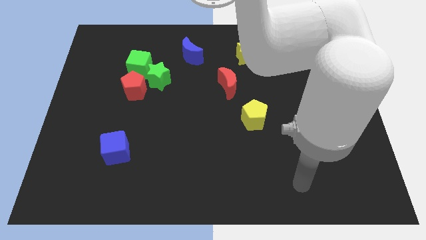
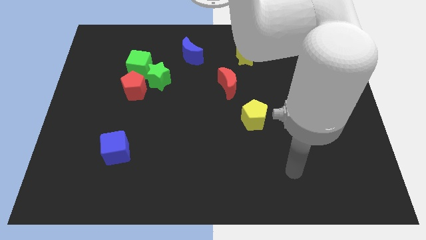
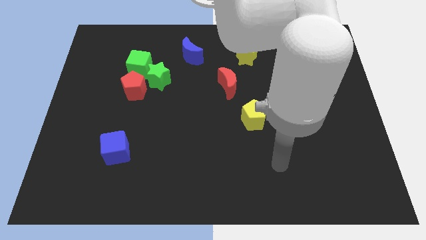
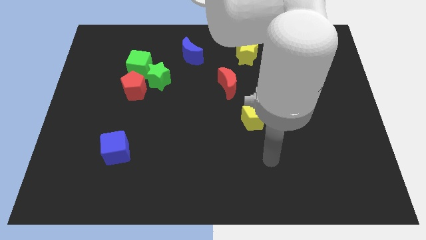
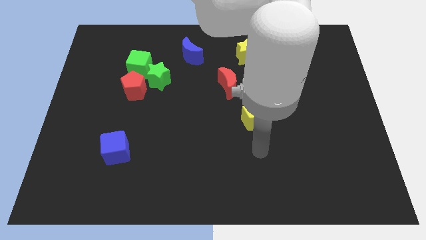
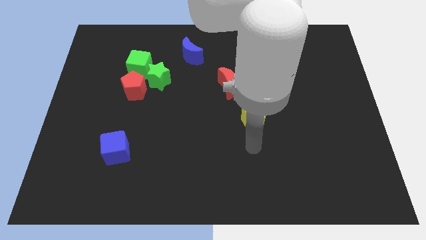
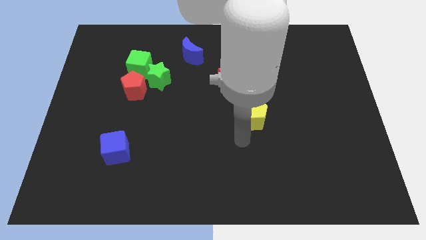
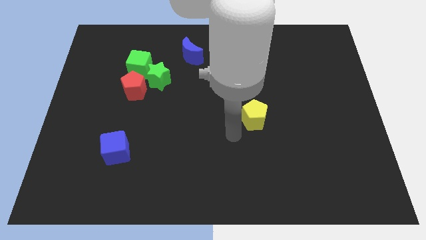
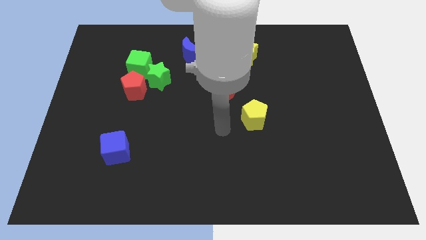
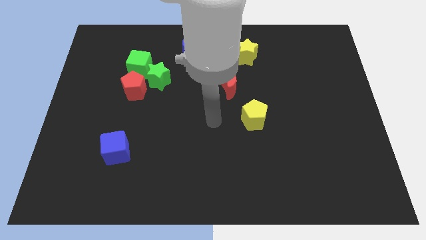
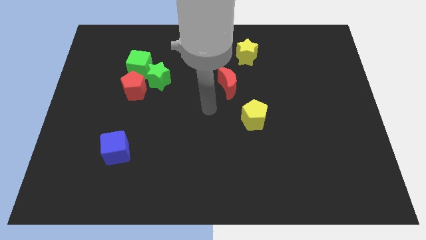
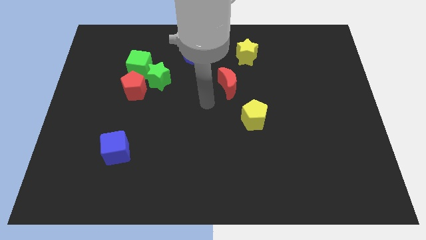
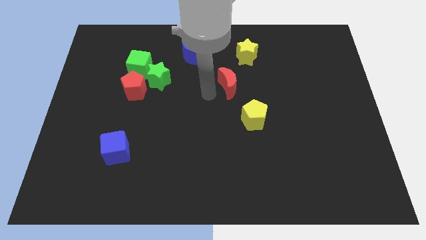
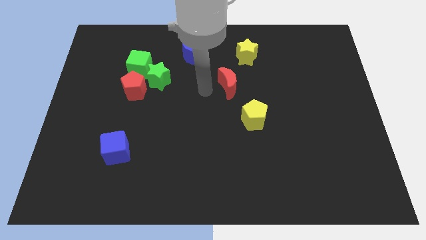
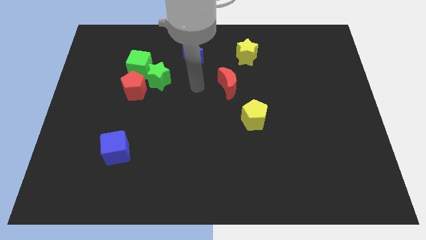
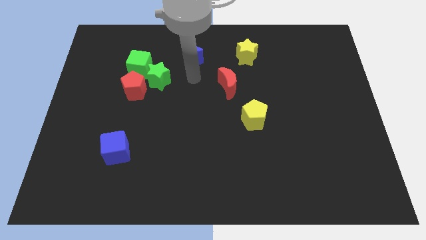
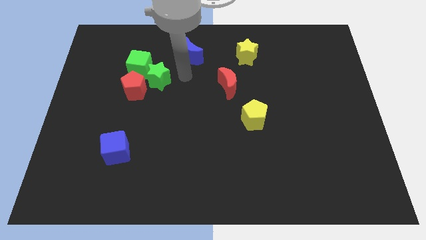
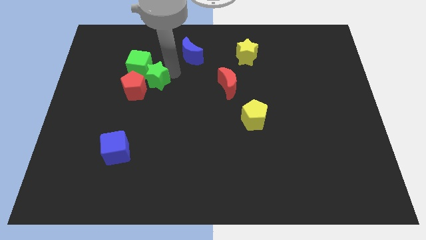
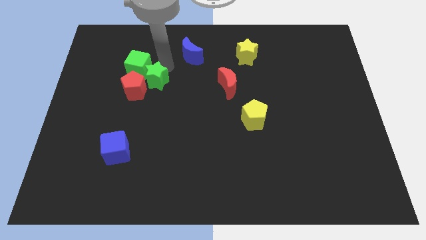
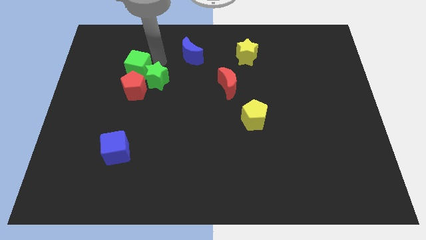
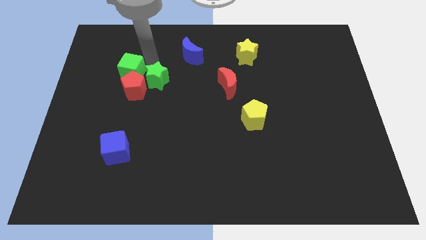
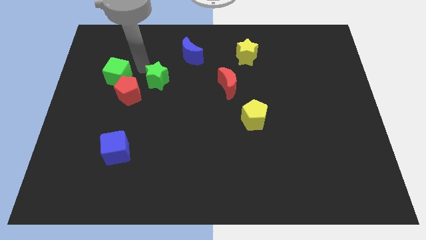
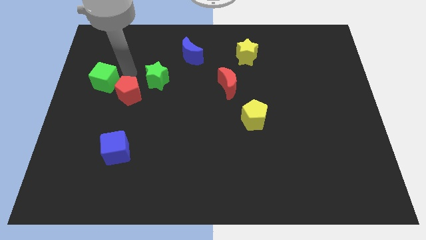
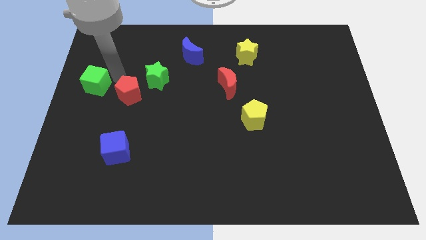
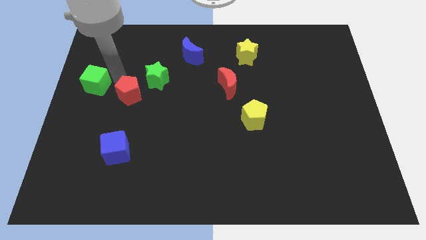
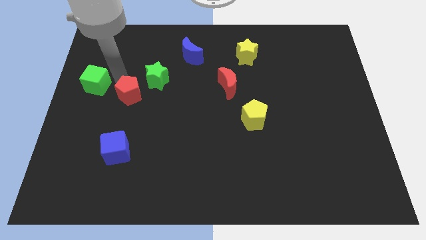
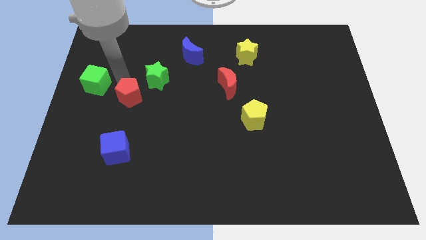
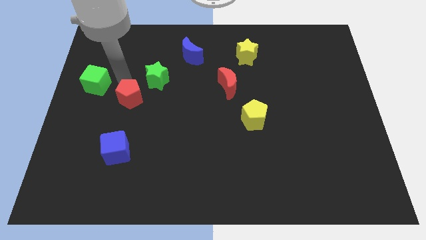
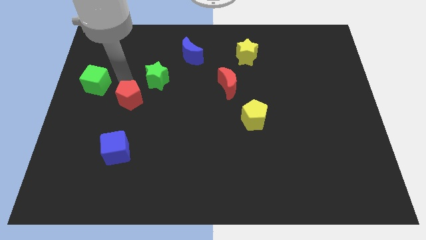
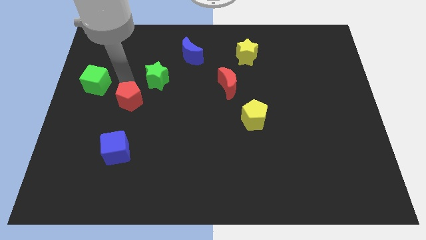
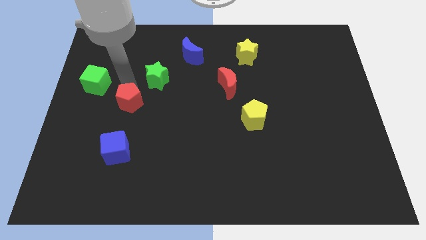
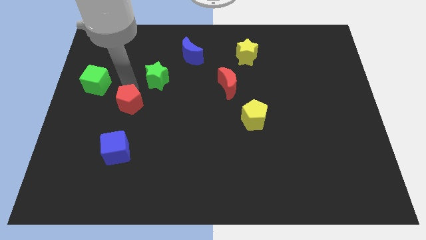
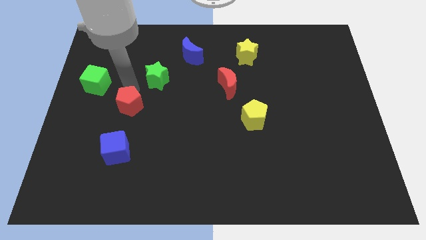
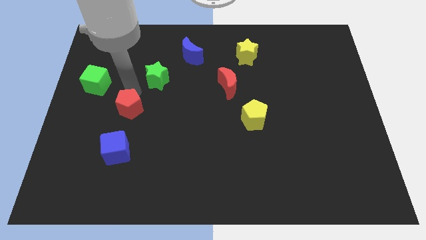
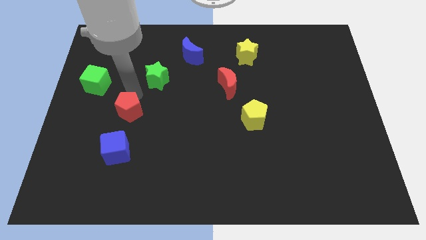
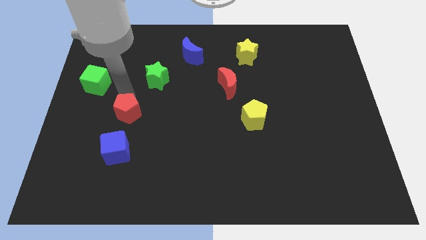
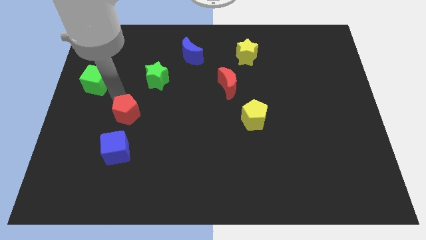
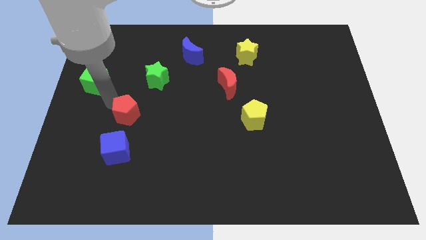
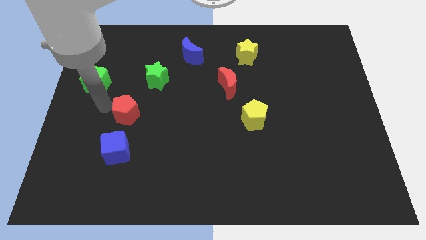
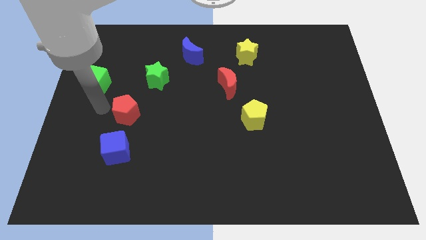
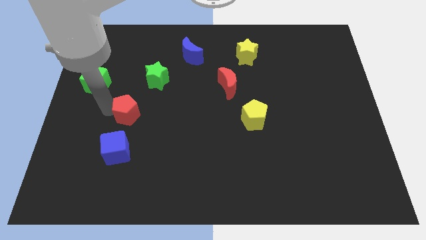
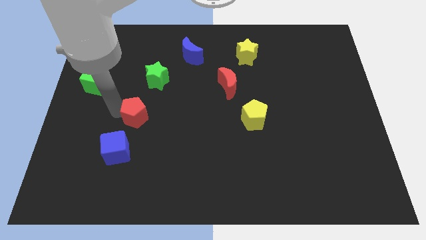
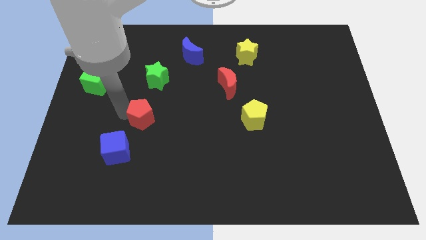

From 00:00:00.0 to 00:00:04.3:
push the red pentagon slightly down and then to the right

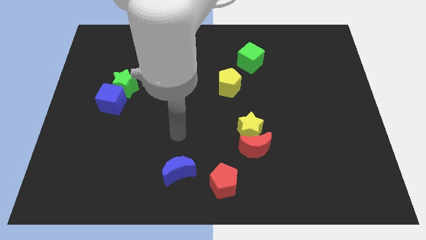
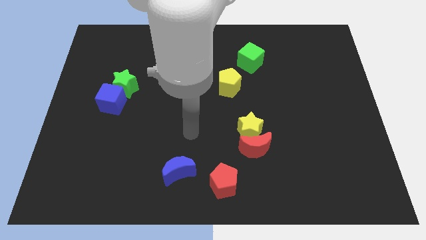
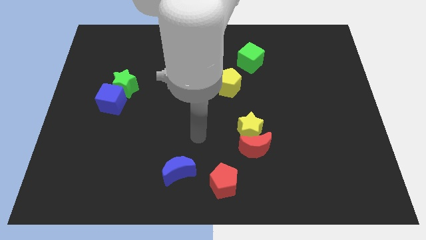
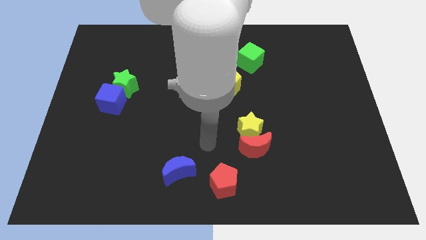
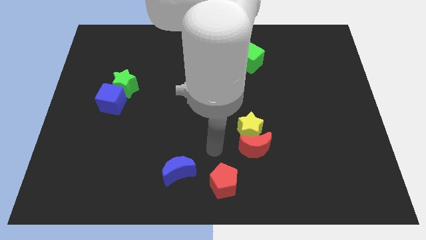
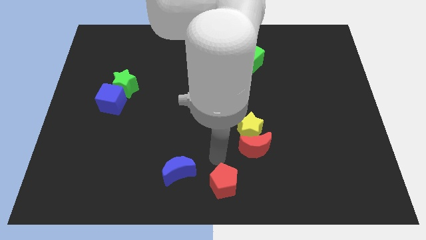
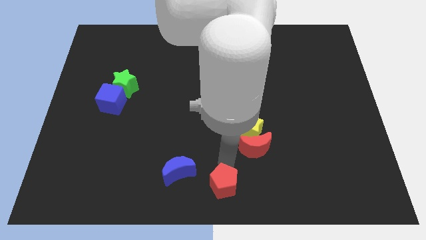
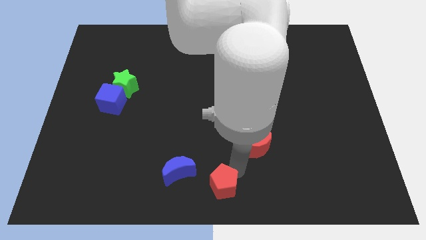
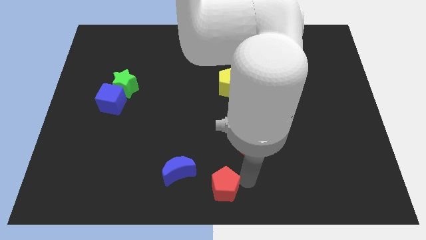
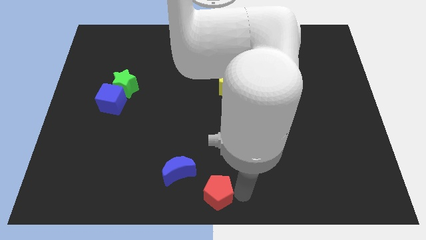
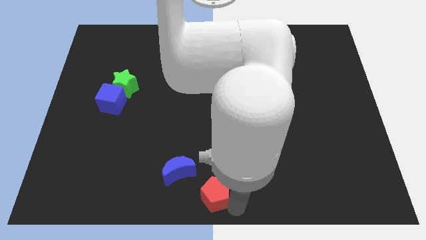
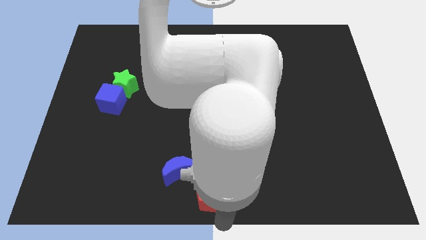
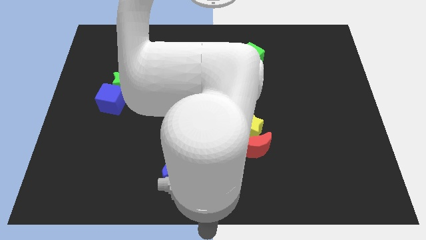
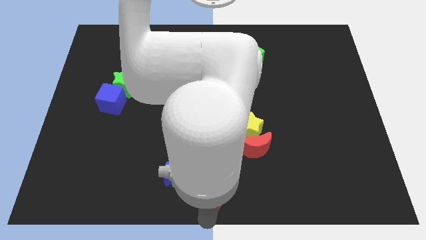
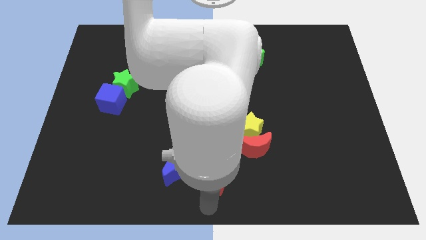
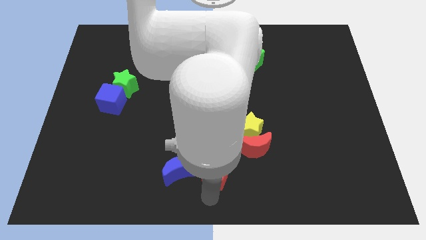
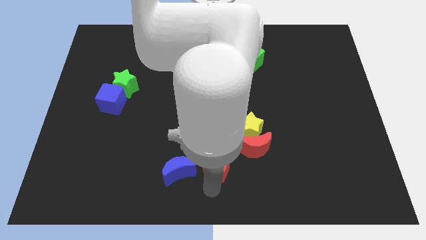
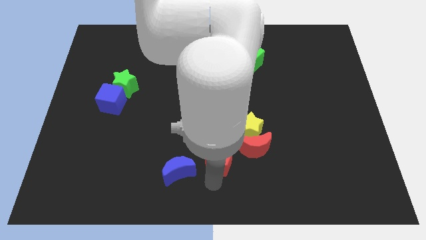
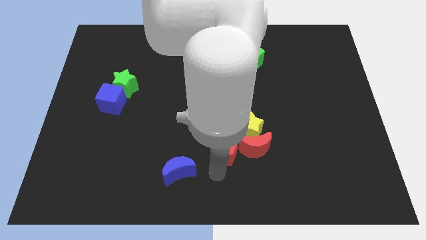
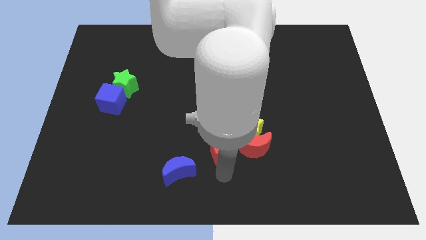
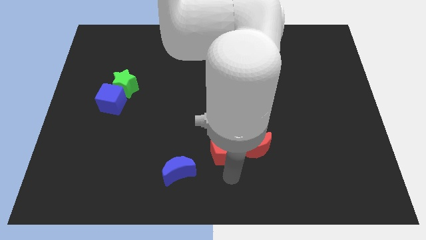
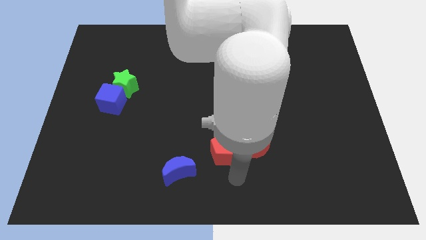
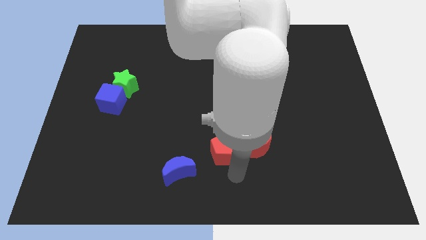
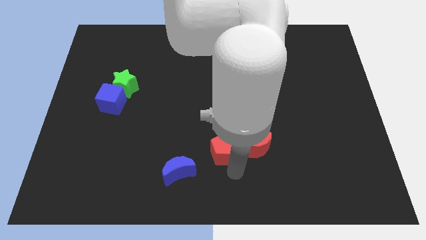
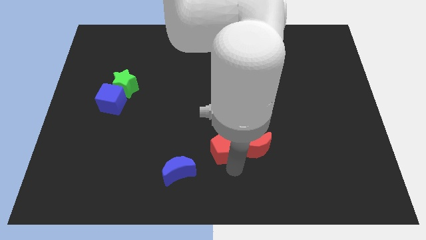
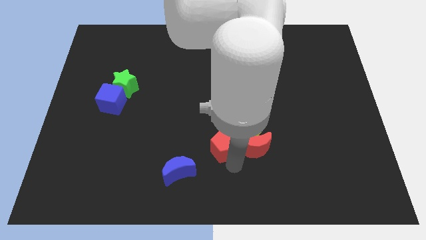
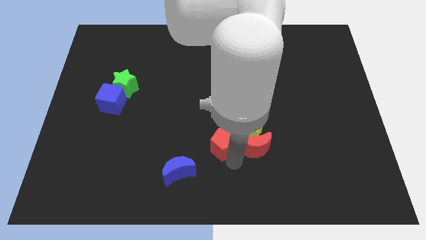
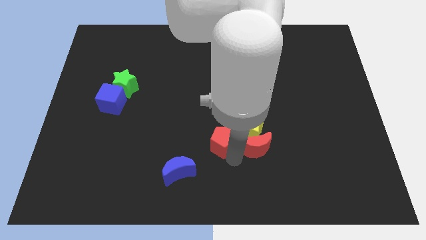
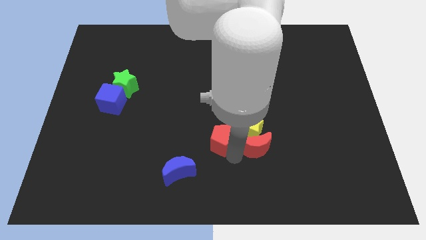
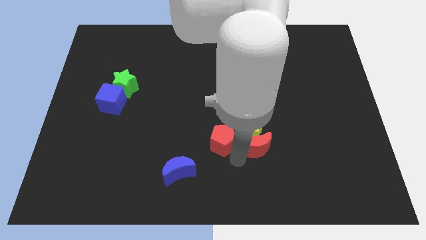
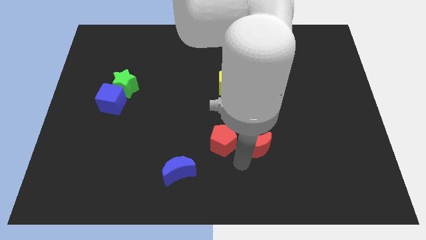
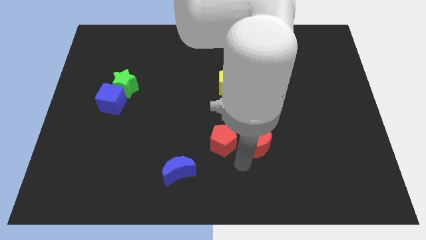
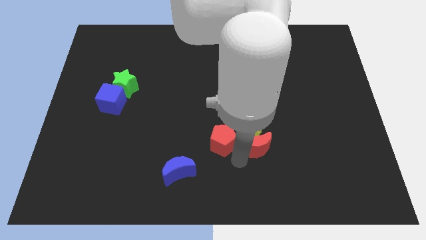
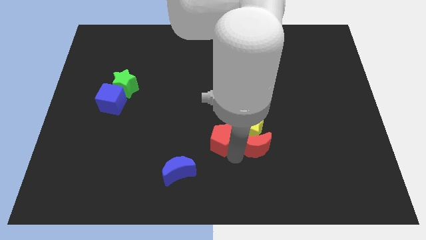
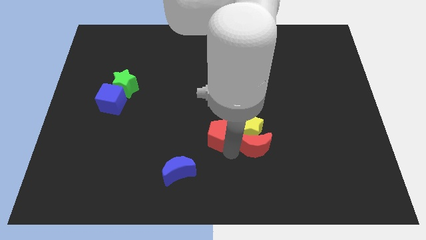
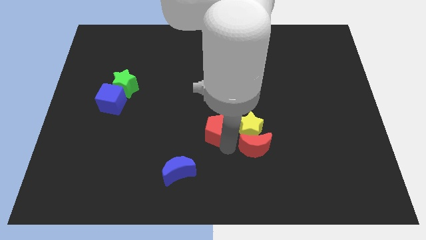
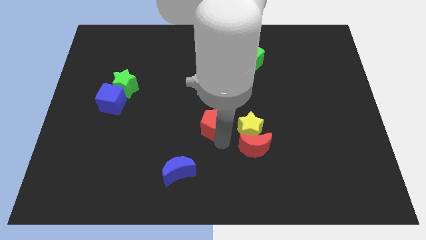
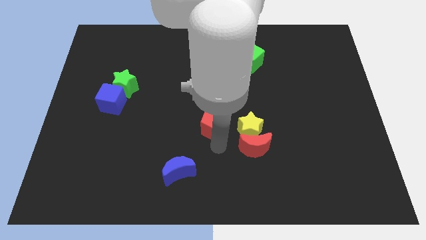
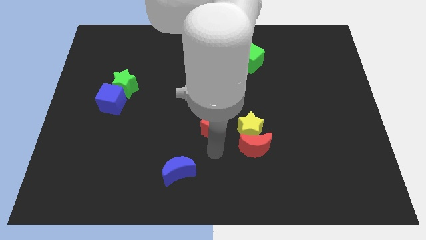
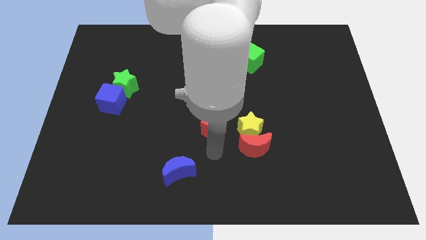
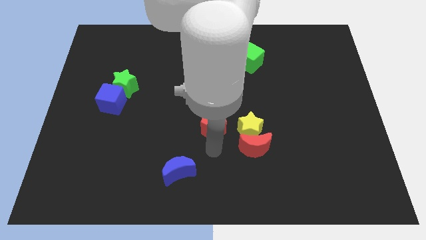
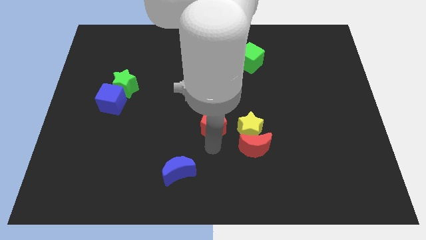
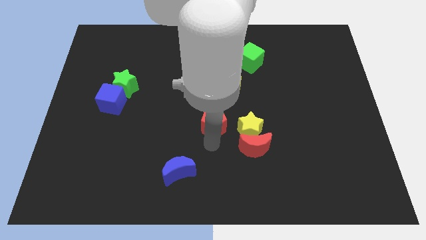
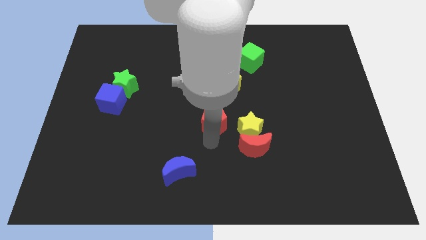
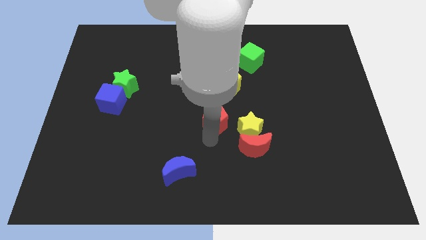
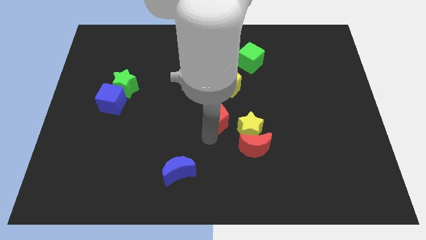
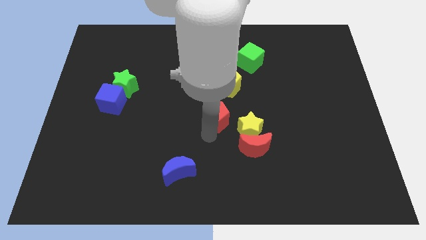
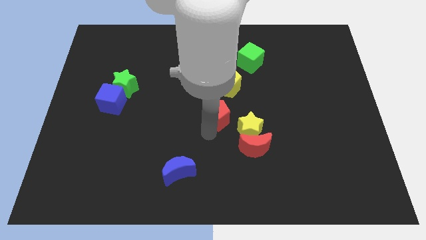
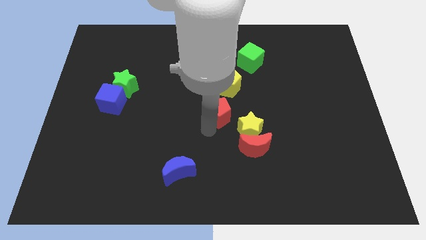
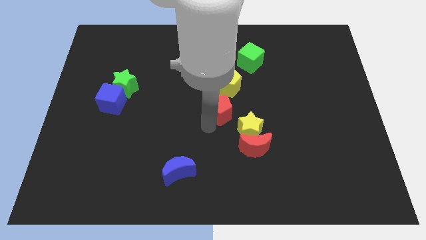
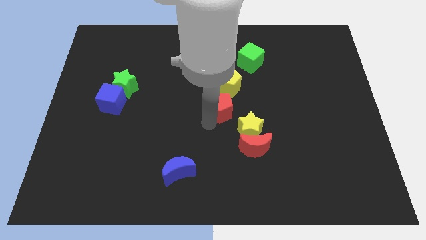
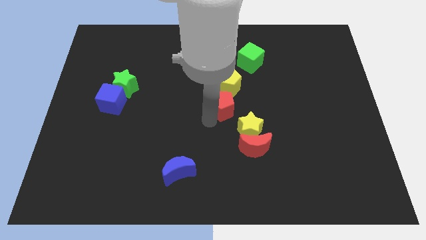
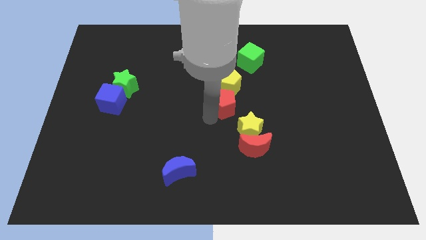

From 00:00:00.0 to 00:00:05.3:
move the red pentagon upwards
